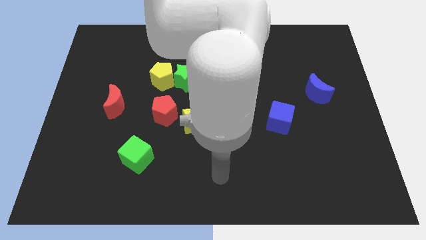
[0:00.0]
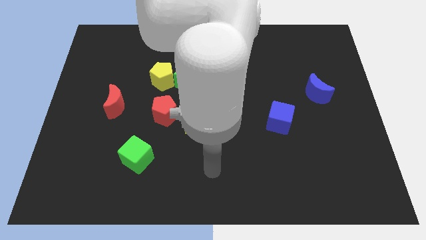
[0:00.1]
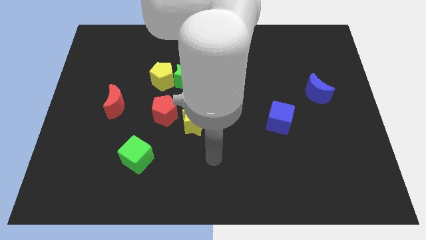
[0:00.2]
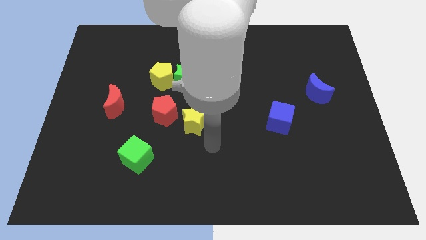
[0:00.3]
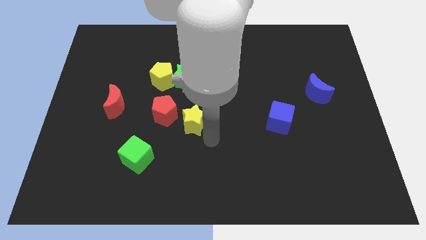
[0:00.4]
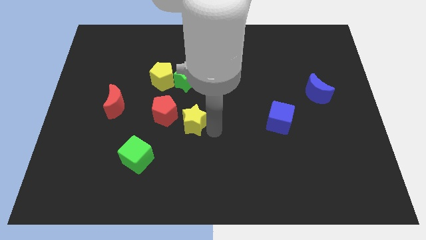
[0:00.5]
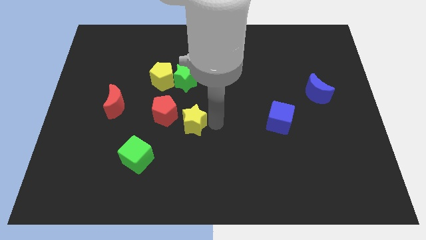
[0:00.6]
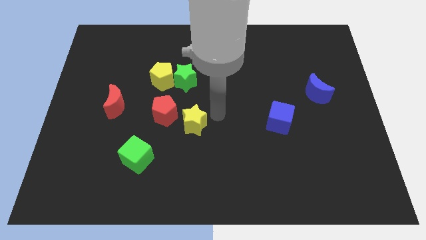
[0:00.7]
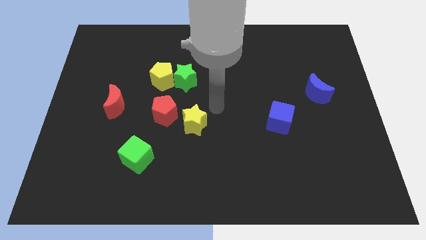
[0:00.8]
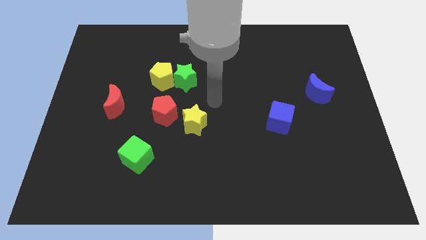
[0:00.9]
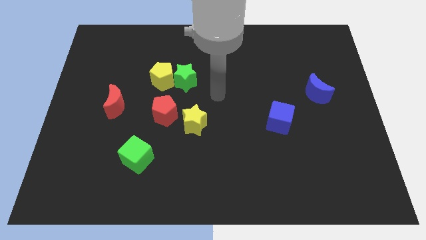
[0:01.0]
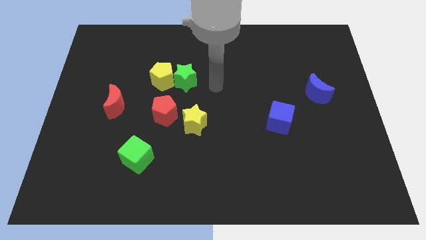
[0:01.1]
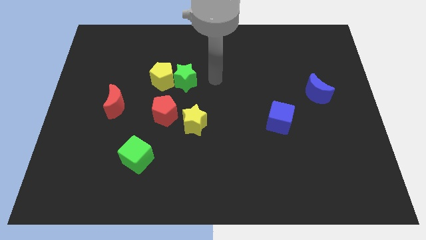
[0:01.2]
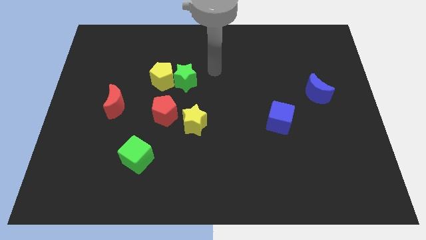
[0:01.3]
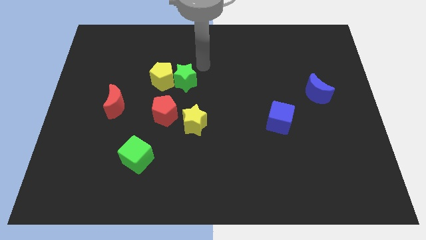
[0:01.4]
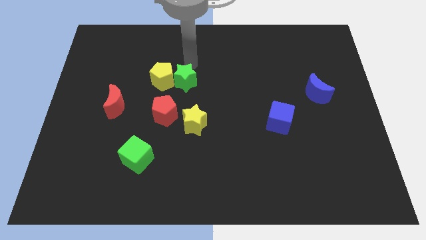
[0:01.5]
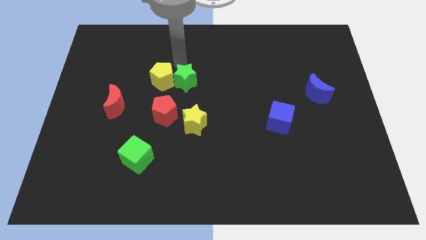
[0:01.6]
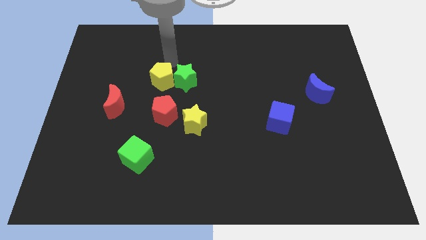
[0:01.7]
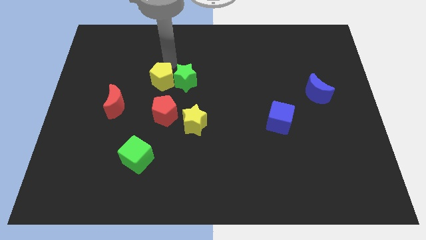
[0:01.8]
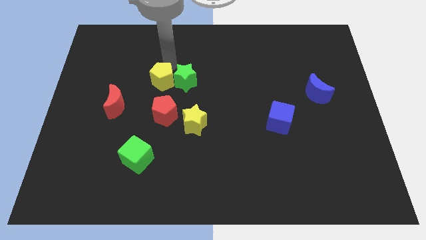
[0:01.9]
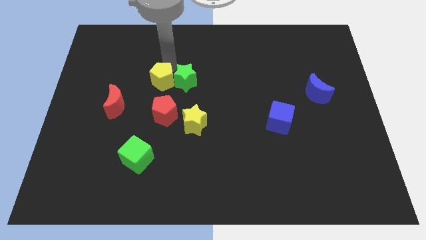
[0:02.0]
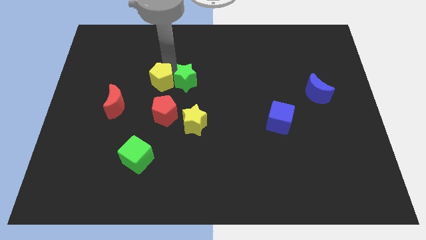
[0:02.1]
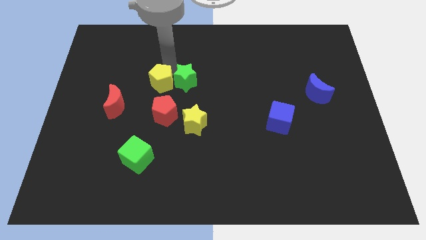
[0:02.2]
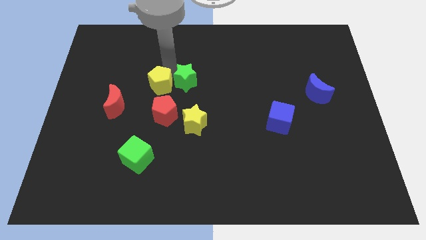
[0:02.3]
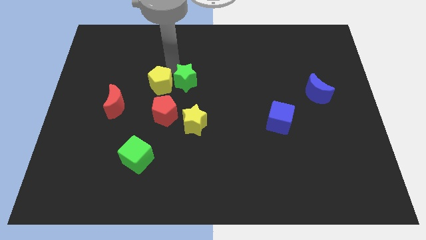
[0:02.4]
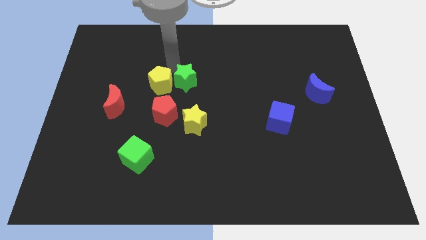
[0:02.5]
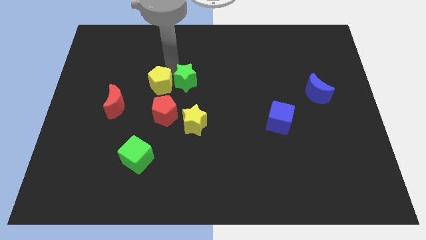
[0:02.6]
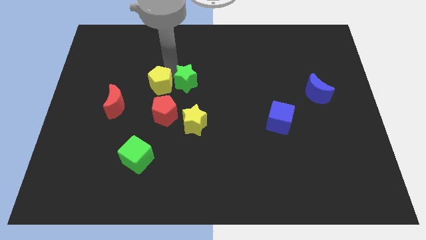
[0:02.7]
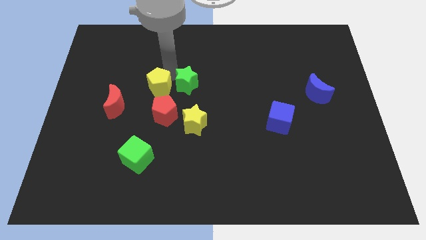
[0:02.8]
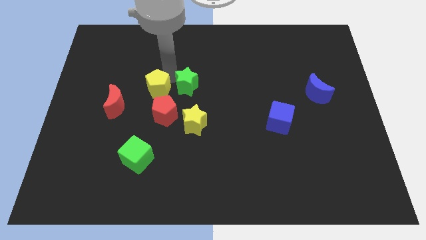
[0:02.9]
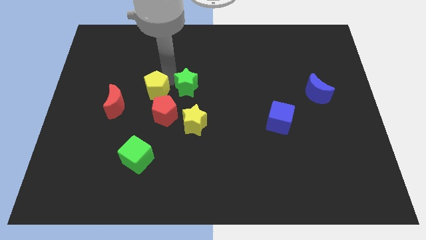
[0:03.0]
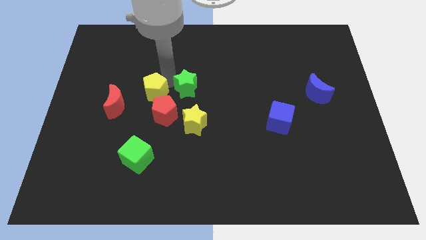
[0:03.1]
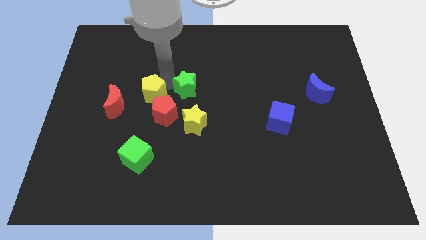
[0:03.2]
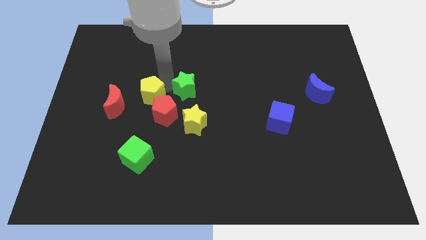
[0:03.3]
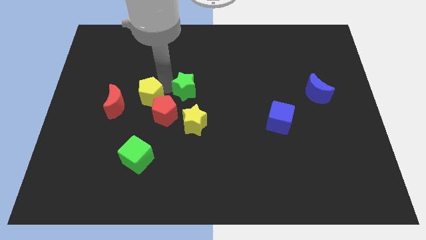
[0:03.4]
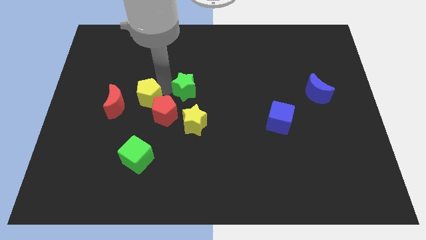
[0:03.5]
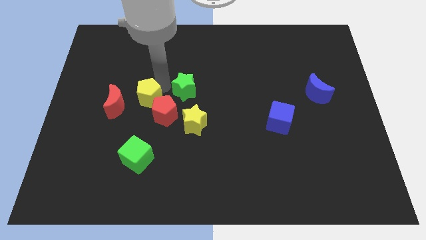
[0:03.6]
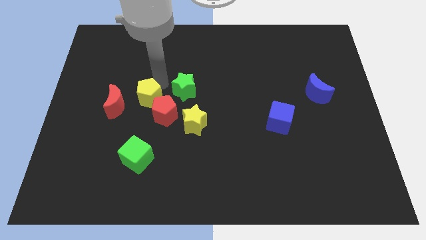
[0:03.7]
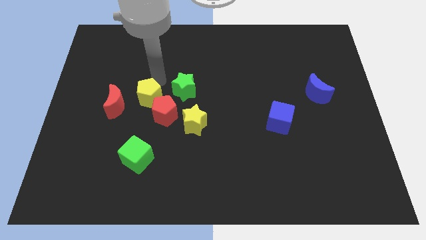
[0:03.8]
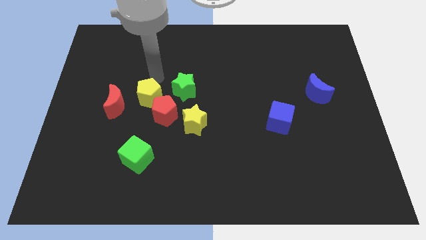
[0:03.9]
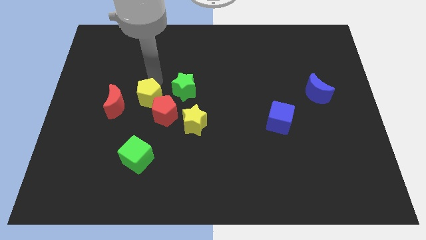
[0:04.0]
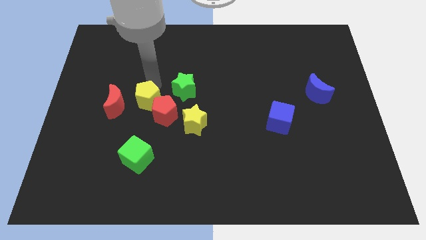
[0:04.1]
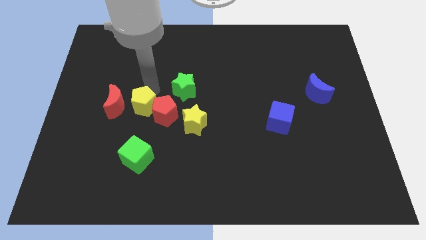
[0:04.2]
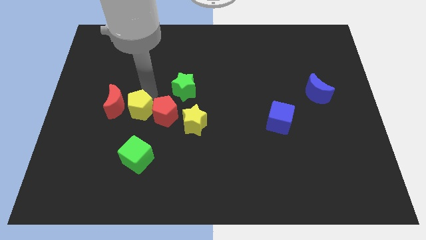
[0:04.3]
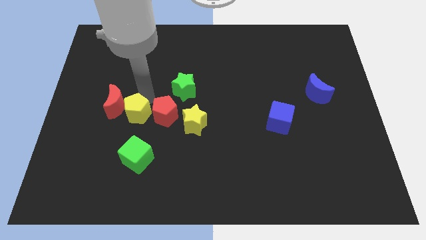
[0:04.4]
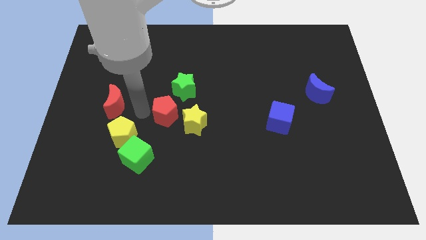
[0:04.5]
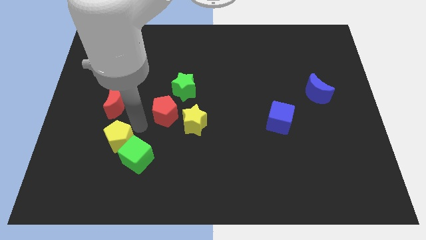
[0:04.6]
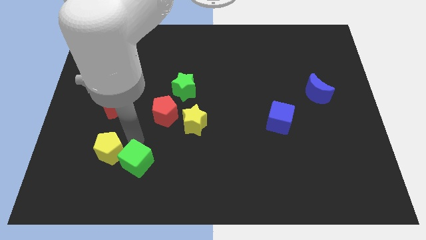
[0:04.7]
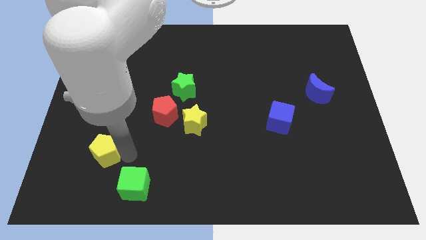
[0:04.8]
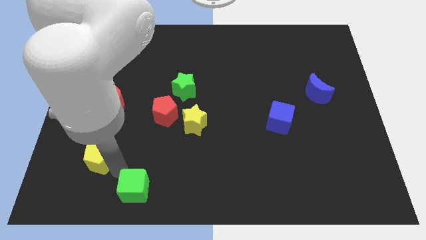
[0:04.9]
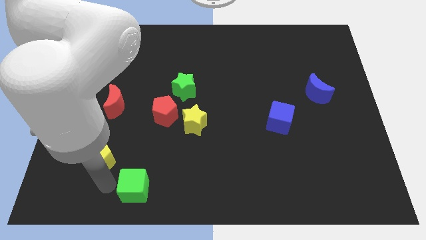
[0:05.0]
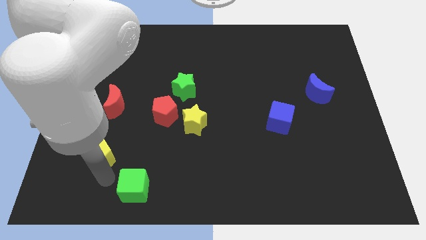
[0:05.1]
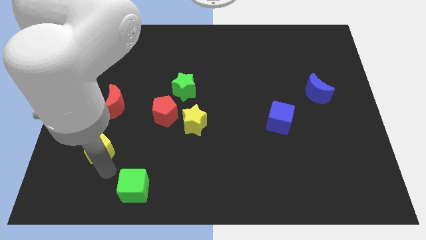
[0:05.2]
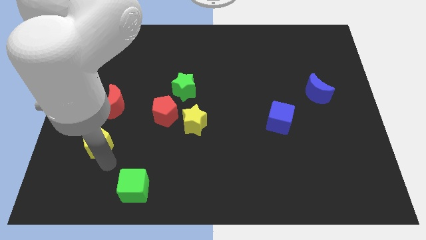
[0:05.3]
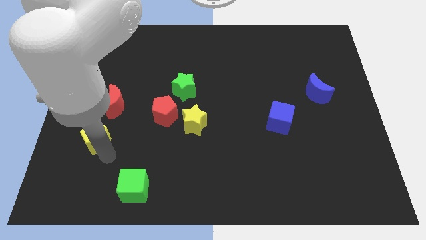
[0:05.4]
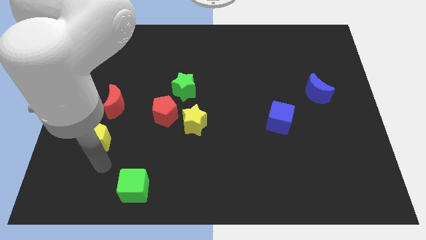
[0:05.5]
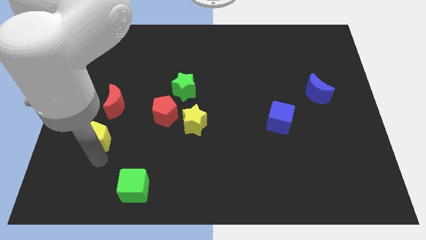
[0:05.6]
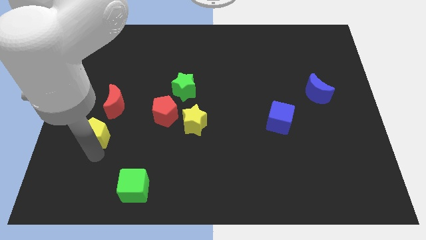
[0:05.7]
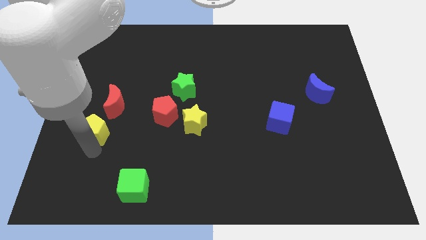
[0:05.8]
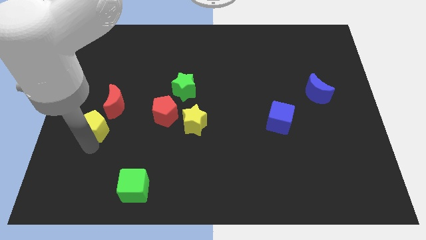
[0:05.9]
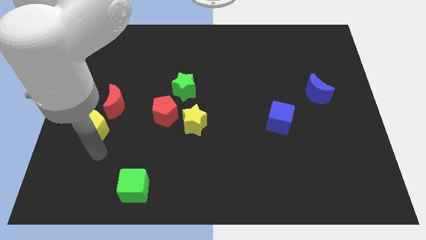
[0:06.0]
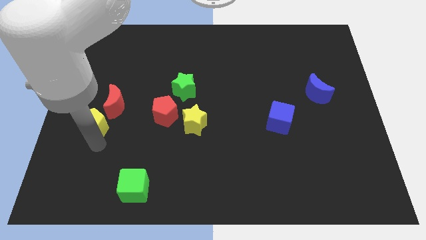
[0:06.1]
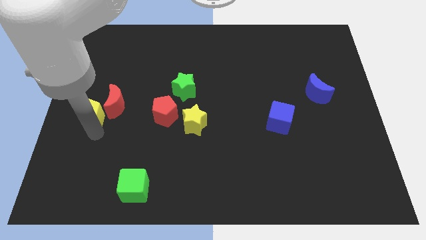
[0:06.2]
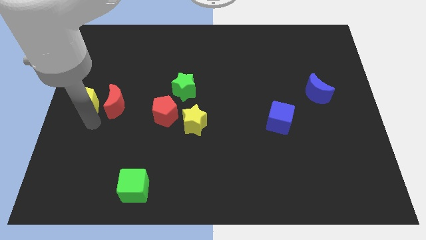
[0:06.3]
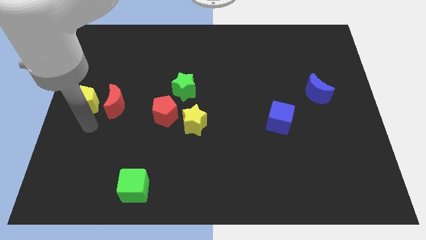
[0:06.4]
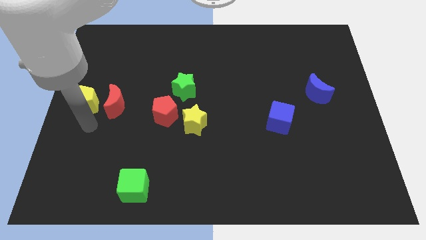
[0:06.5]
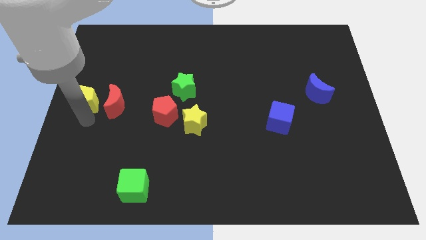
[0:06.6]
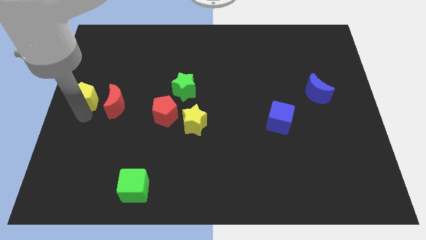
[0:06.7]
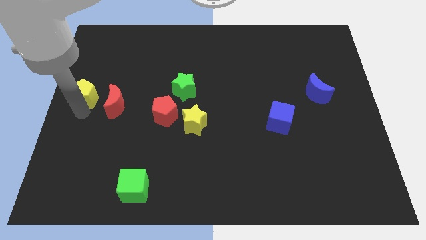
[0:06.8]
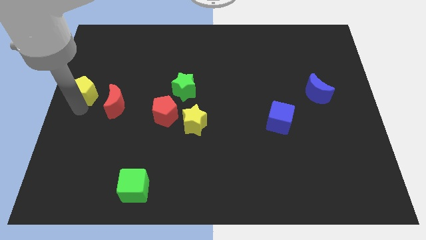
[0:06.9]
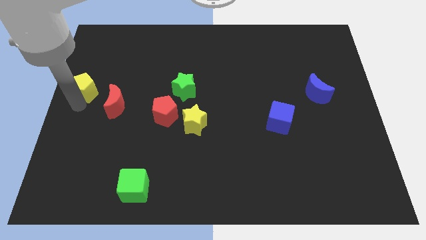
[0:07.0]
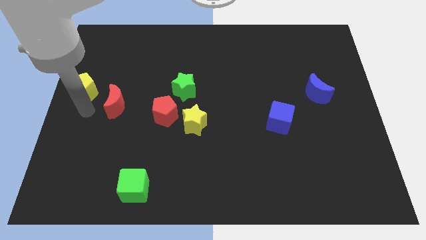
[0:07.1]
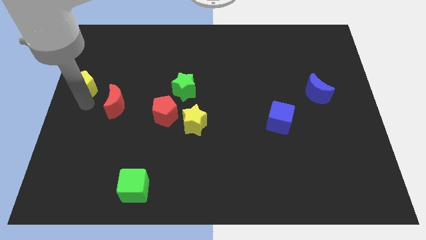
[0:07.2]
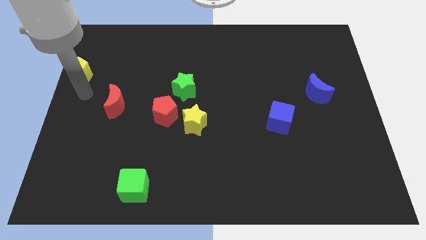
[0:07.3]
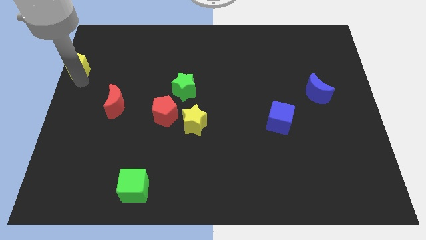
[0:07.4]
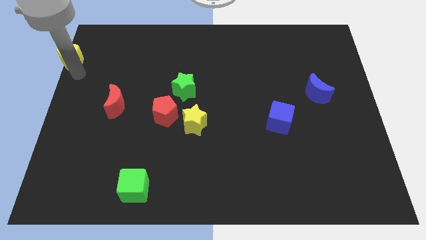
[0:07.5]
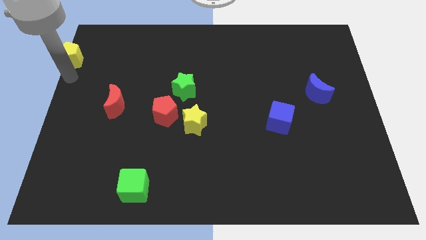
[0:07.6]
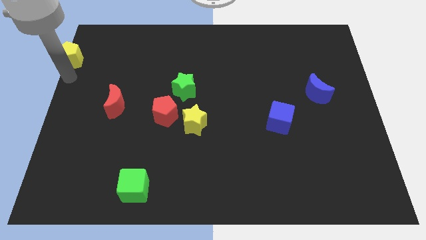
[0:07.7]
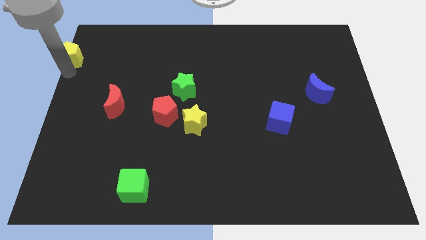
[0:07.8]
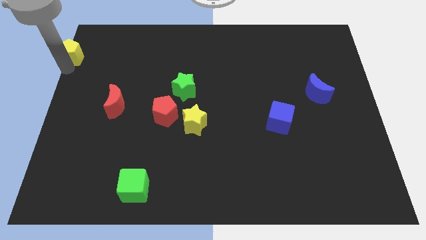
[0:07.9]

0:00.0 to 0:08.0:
move the yellow pentagon to the top left corner
